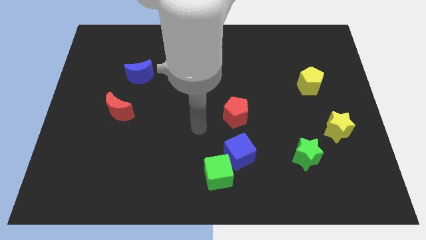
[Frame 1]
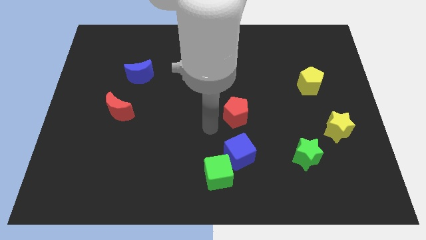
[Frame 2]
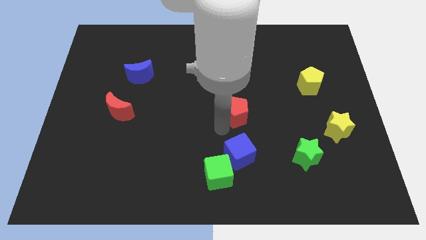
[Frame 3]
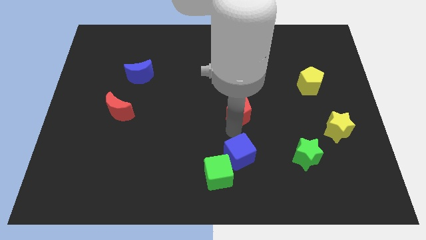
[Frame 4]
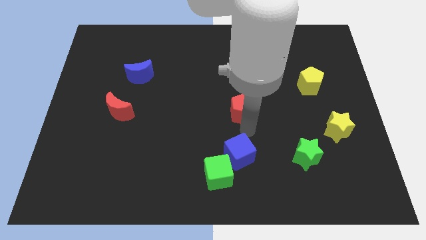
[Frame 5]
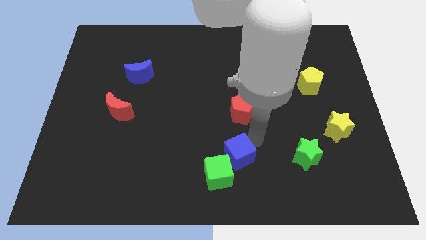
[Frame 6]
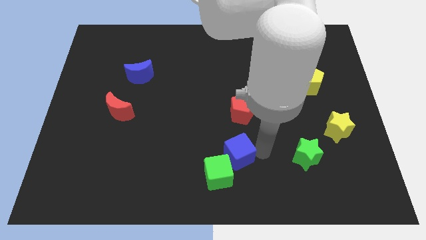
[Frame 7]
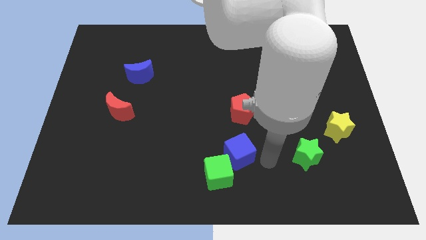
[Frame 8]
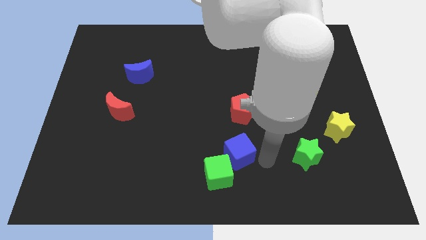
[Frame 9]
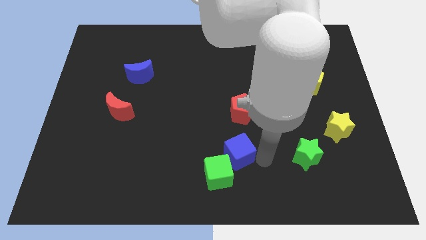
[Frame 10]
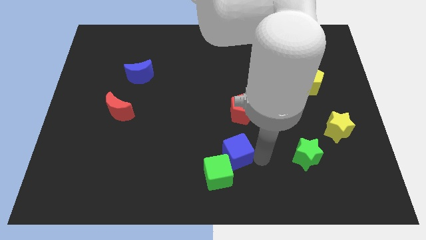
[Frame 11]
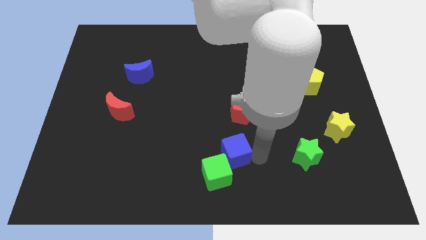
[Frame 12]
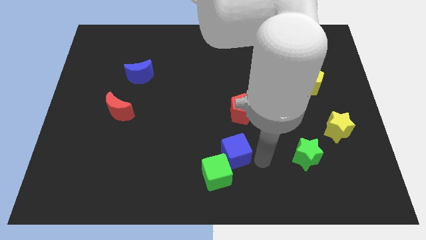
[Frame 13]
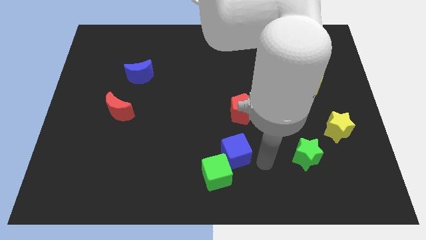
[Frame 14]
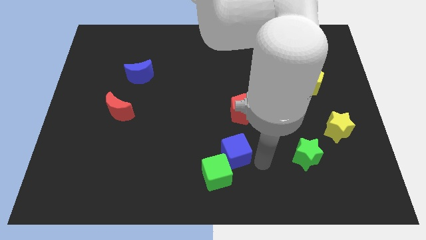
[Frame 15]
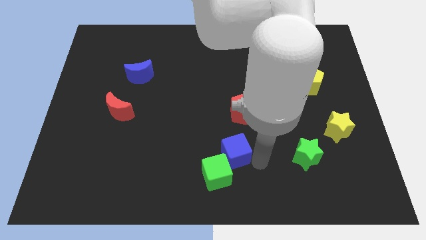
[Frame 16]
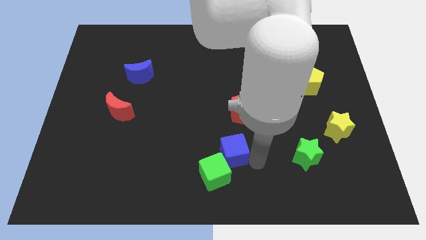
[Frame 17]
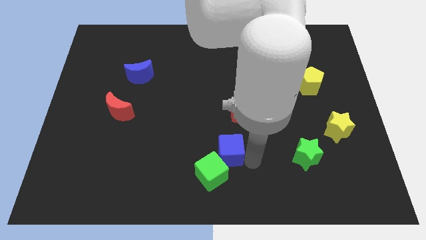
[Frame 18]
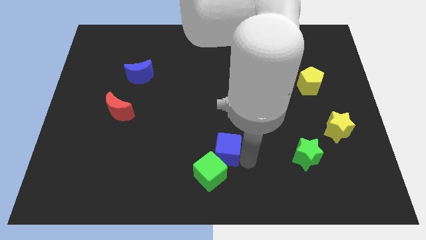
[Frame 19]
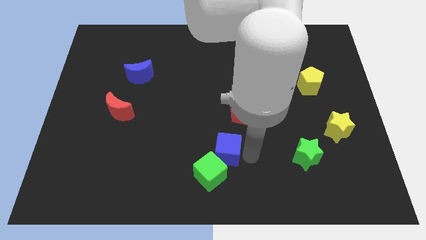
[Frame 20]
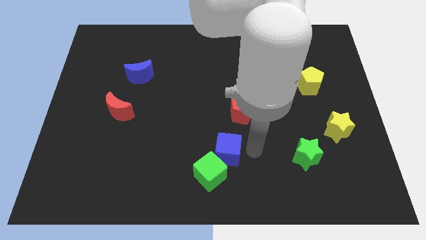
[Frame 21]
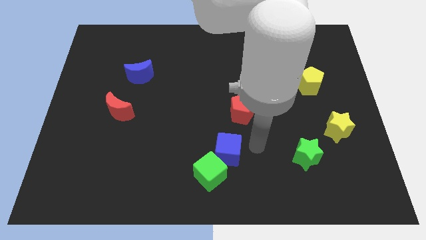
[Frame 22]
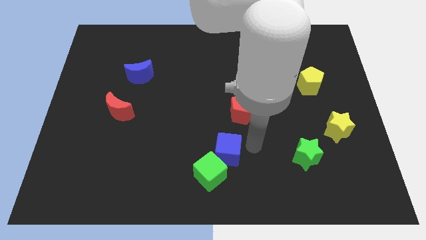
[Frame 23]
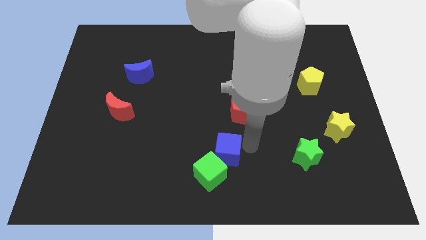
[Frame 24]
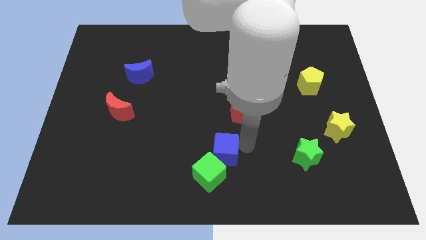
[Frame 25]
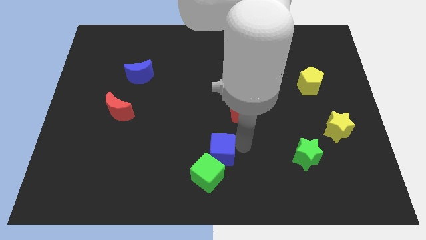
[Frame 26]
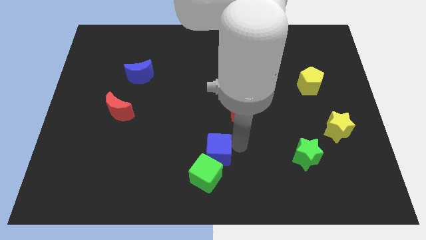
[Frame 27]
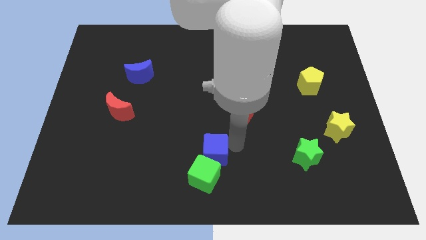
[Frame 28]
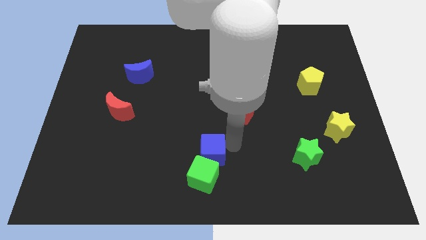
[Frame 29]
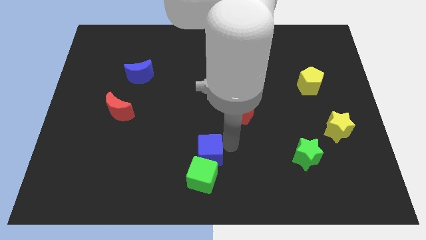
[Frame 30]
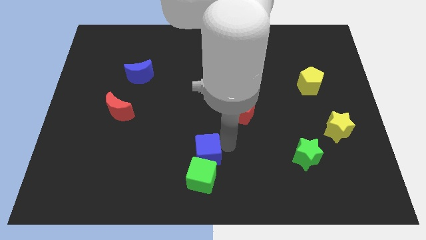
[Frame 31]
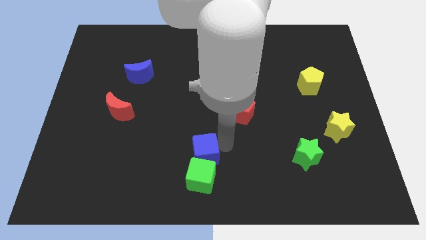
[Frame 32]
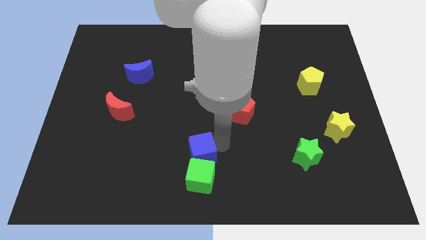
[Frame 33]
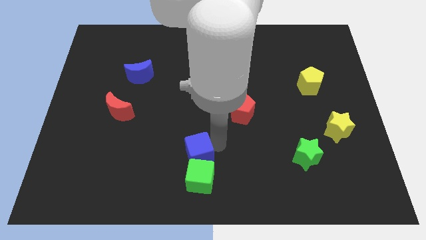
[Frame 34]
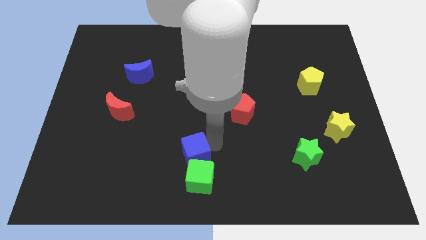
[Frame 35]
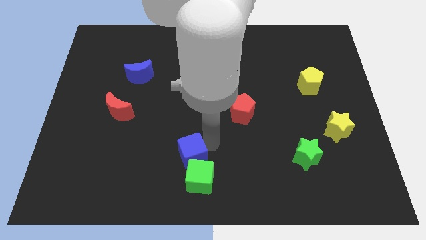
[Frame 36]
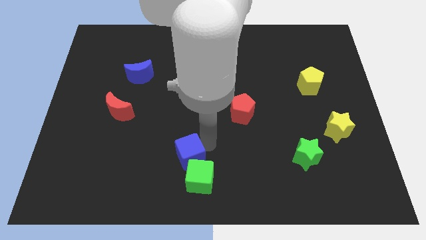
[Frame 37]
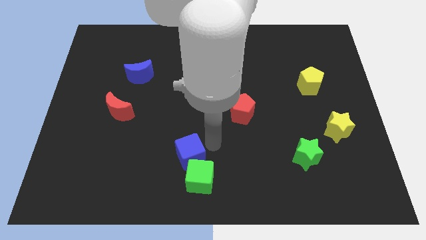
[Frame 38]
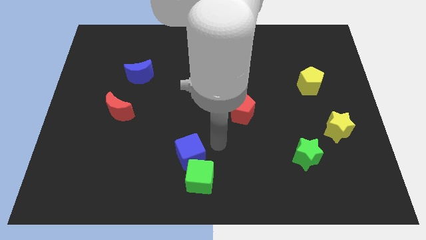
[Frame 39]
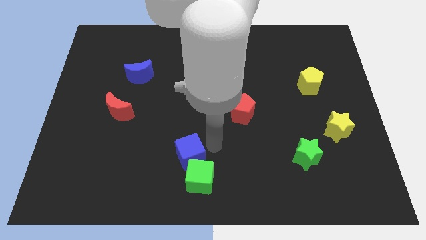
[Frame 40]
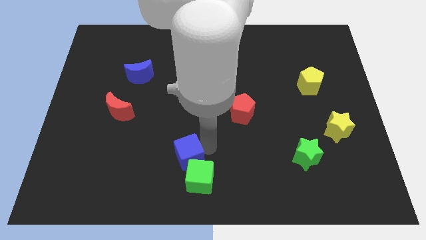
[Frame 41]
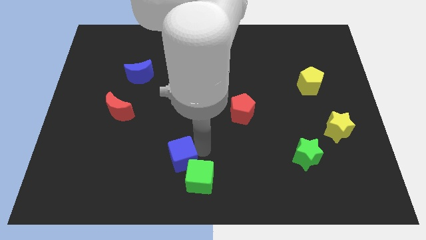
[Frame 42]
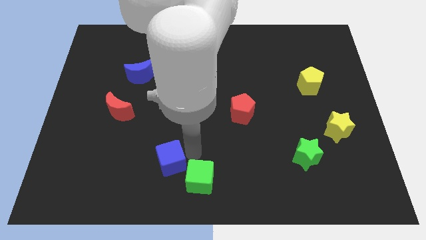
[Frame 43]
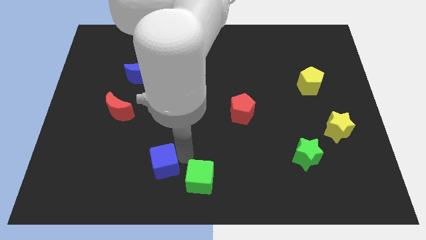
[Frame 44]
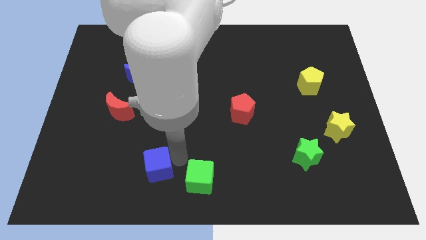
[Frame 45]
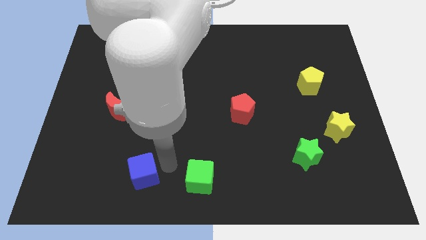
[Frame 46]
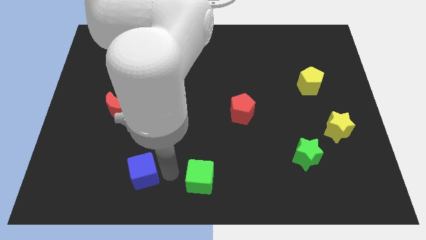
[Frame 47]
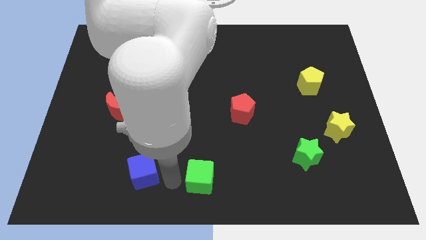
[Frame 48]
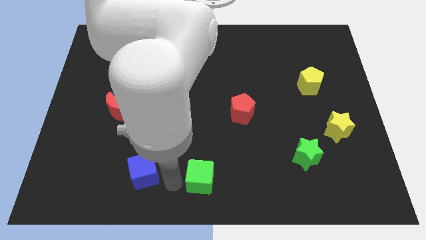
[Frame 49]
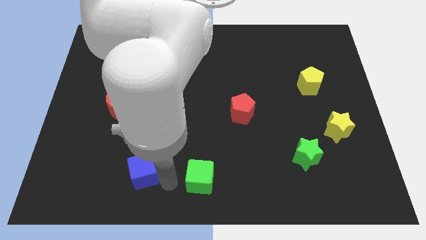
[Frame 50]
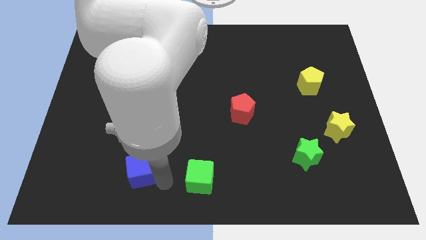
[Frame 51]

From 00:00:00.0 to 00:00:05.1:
slide the blue cube left

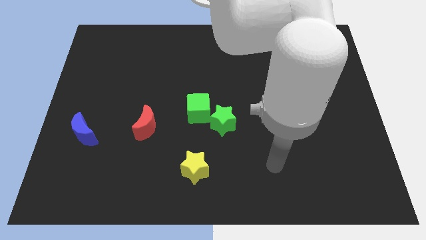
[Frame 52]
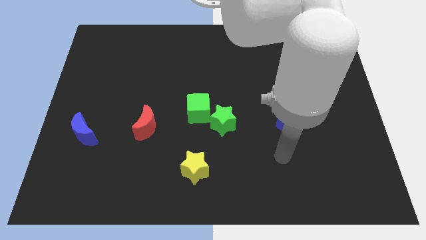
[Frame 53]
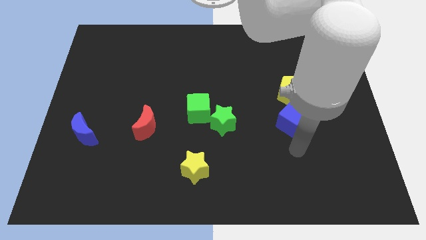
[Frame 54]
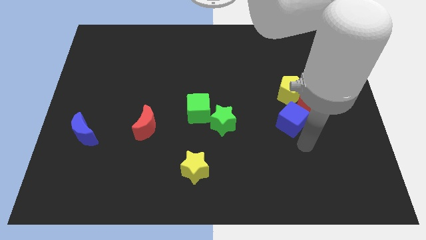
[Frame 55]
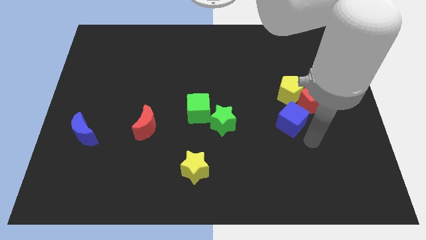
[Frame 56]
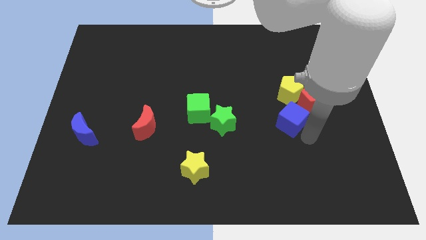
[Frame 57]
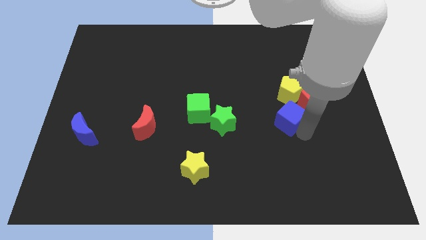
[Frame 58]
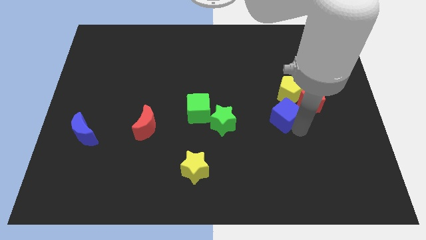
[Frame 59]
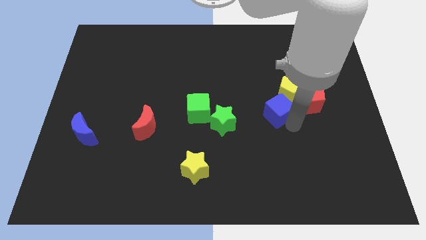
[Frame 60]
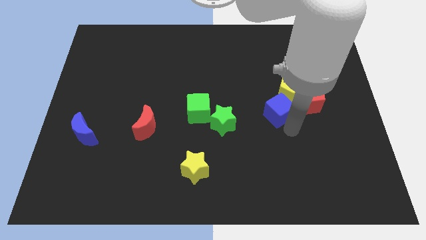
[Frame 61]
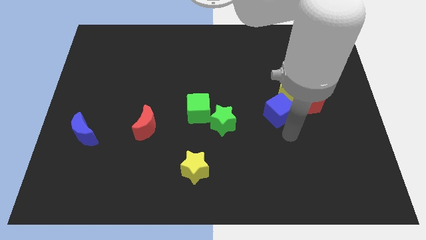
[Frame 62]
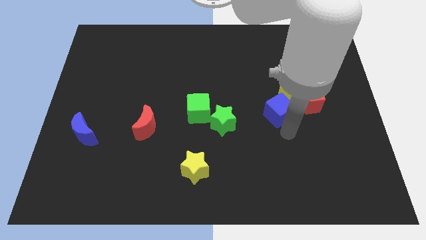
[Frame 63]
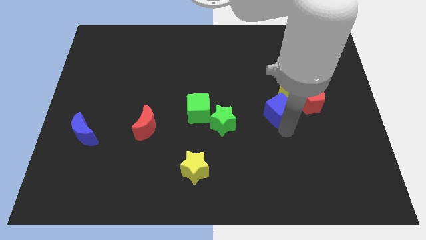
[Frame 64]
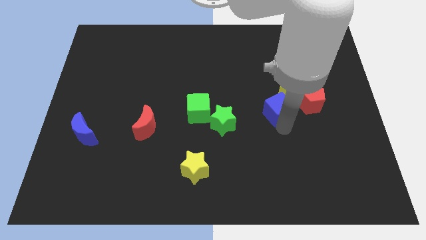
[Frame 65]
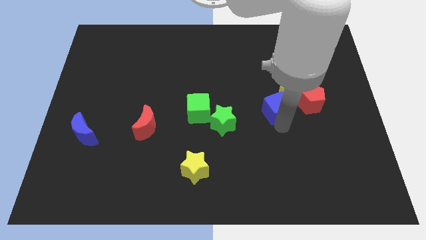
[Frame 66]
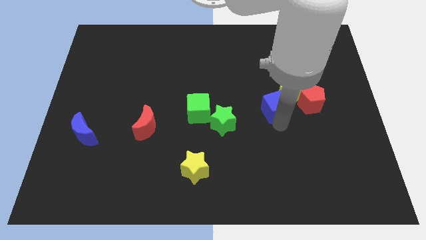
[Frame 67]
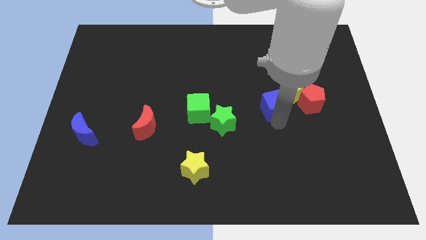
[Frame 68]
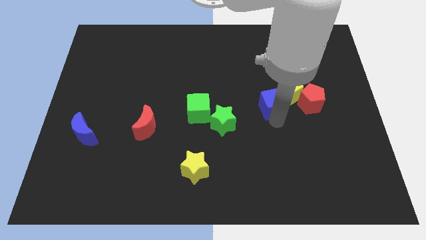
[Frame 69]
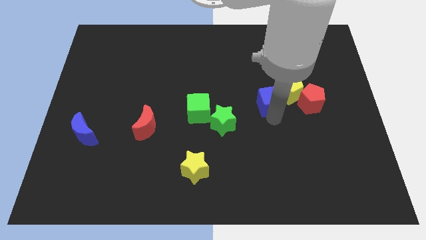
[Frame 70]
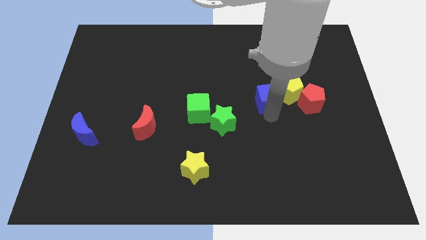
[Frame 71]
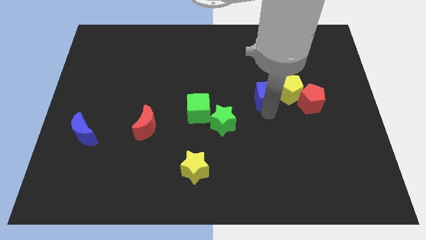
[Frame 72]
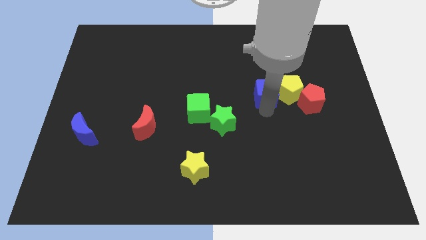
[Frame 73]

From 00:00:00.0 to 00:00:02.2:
push the blue cube somewhat upwards

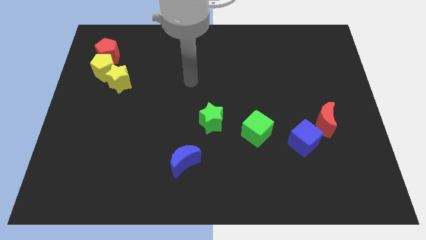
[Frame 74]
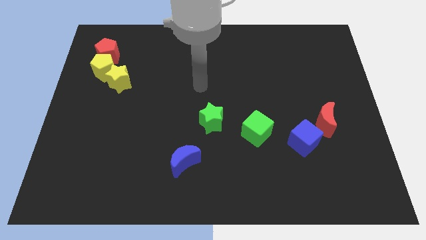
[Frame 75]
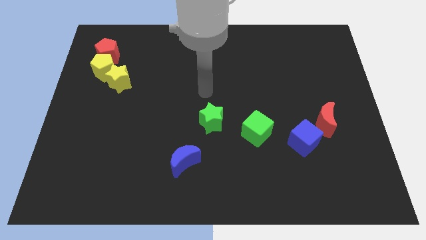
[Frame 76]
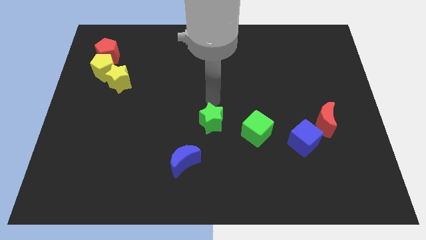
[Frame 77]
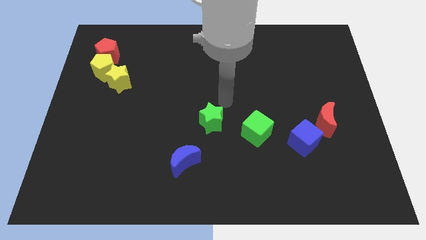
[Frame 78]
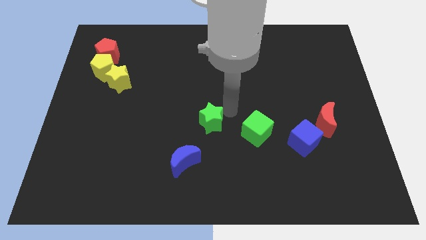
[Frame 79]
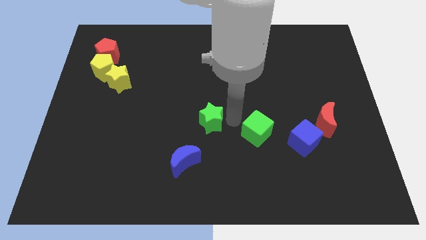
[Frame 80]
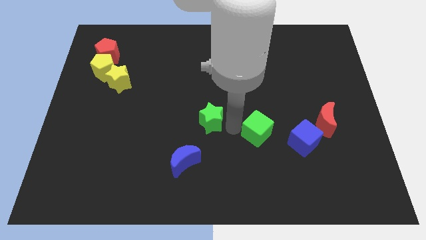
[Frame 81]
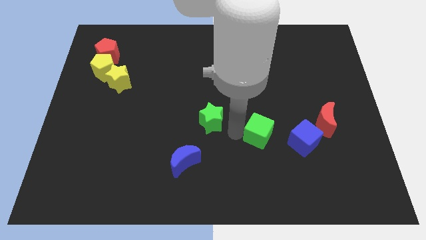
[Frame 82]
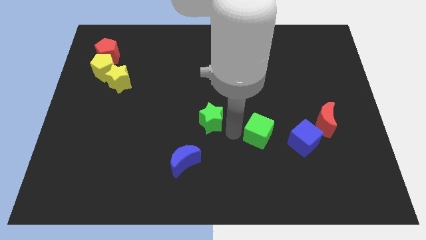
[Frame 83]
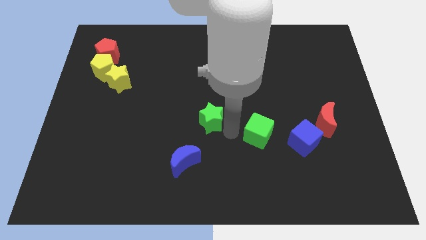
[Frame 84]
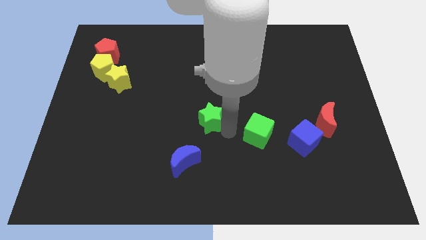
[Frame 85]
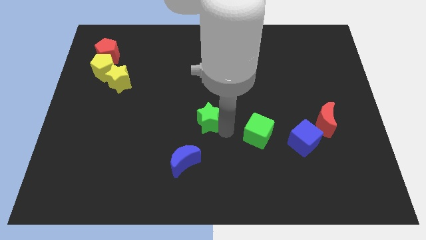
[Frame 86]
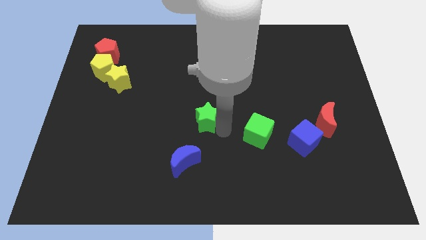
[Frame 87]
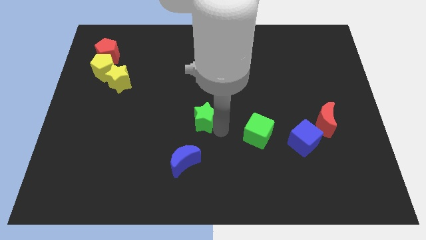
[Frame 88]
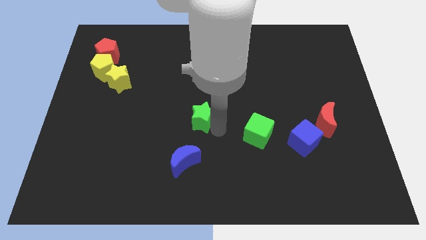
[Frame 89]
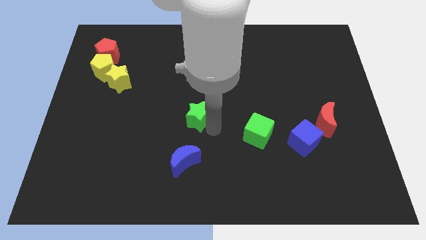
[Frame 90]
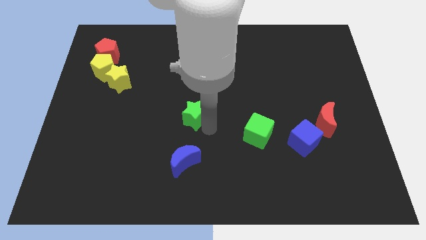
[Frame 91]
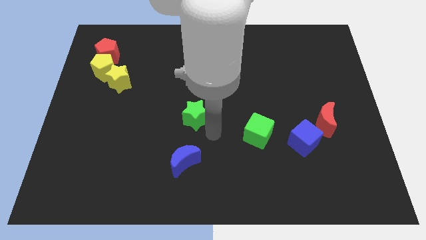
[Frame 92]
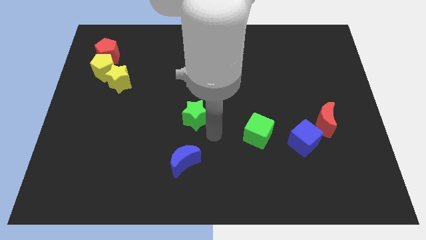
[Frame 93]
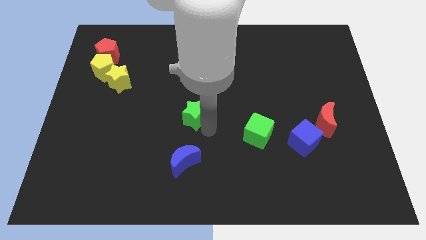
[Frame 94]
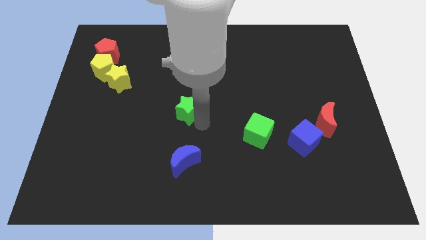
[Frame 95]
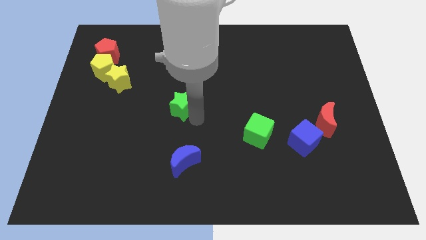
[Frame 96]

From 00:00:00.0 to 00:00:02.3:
slightly push the green star diagonally up and to the left
